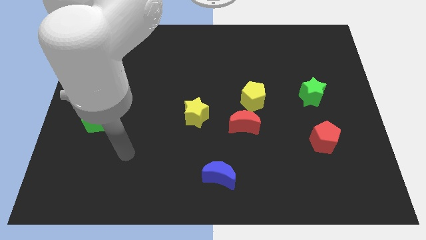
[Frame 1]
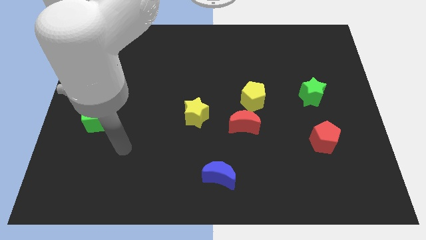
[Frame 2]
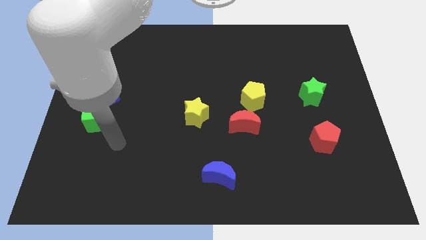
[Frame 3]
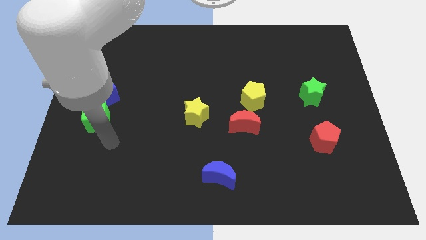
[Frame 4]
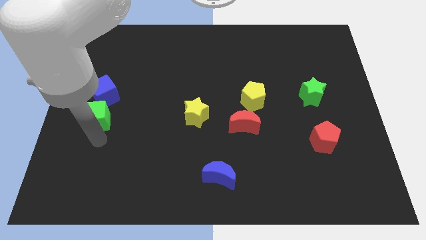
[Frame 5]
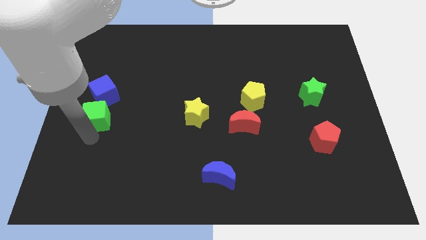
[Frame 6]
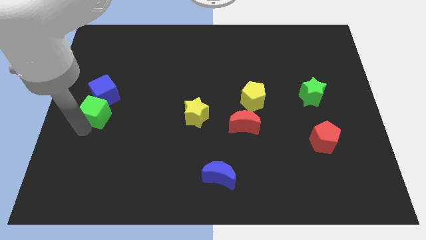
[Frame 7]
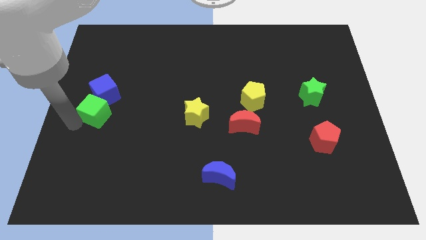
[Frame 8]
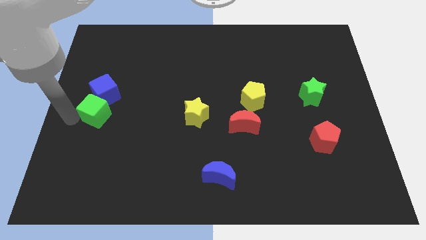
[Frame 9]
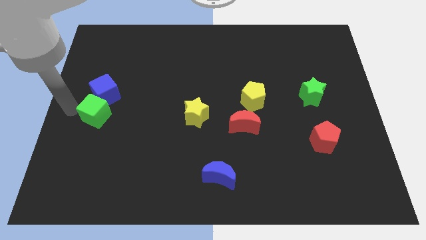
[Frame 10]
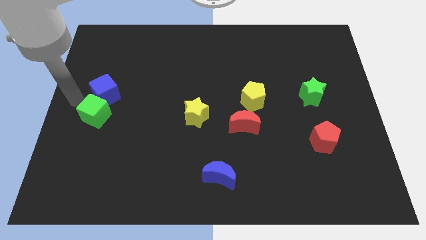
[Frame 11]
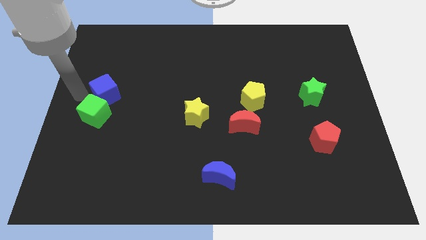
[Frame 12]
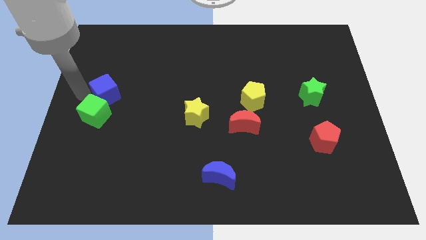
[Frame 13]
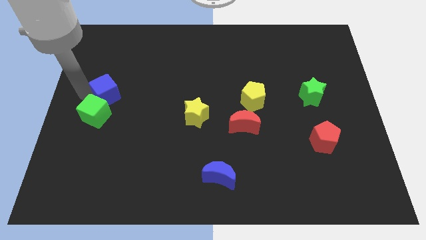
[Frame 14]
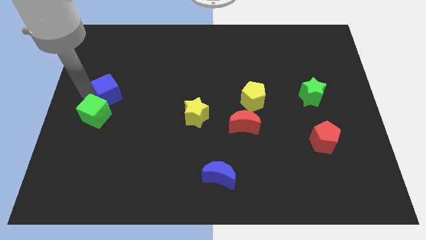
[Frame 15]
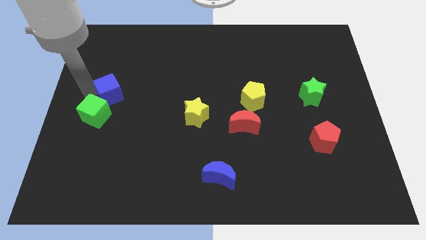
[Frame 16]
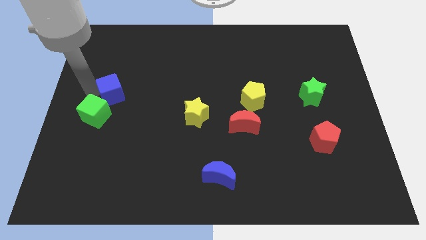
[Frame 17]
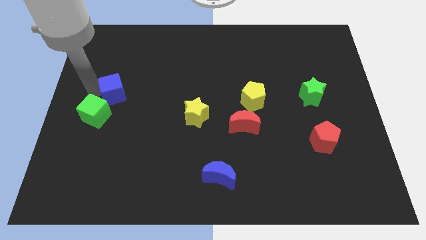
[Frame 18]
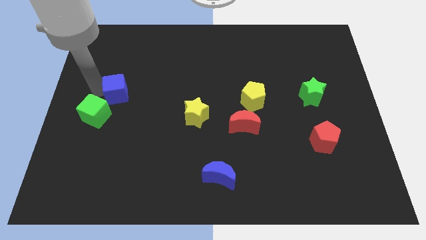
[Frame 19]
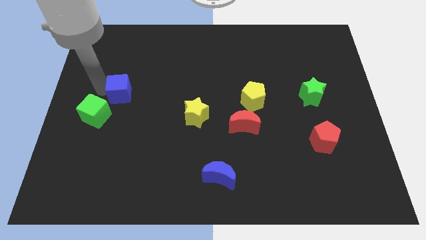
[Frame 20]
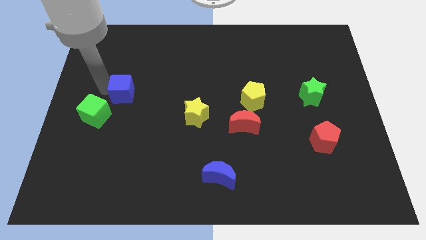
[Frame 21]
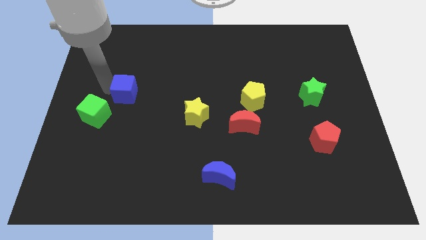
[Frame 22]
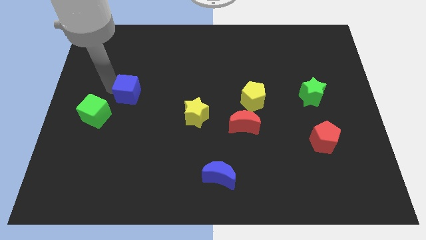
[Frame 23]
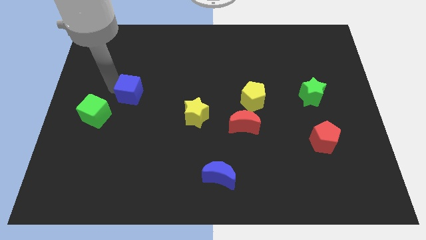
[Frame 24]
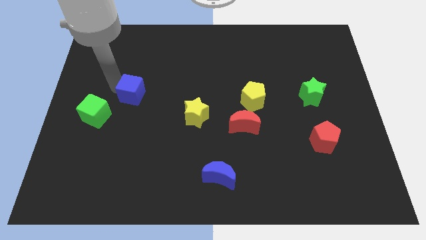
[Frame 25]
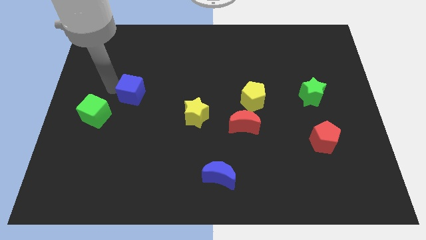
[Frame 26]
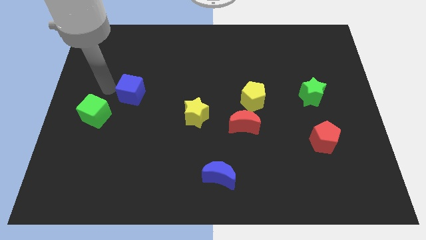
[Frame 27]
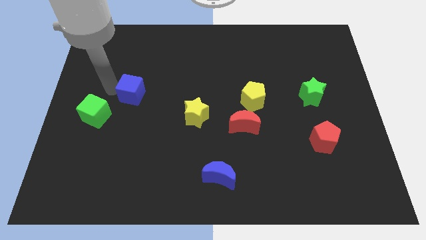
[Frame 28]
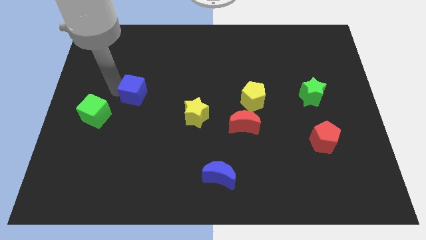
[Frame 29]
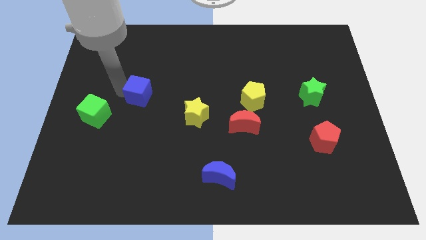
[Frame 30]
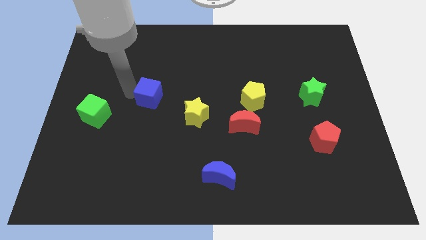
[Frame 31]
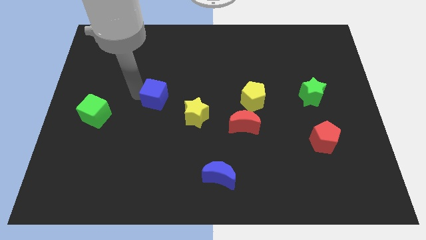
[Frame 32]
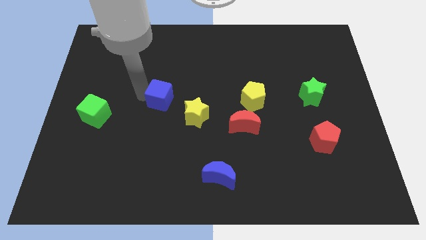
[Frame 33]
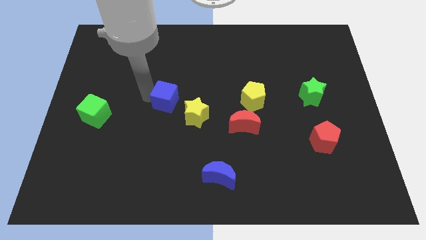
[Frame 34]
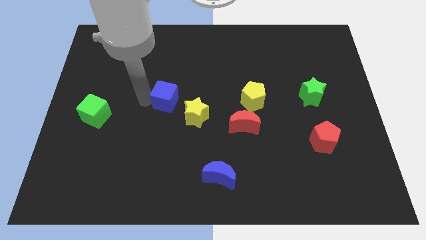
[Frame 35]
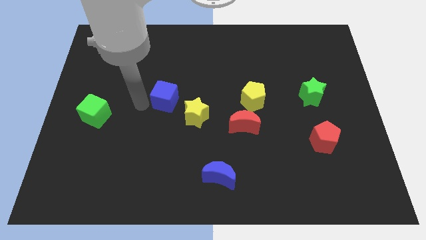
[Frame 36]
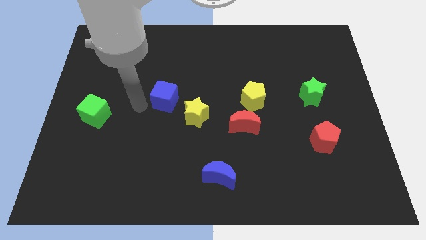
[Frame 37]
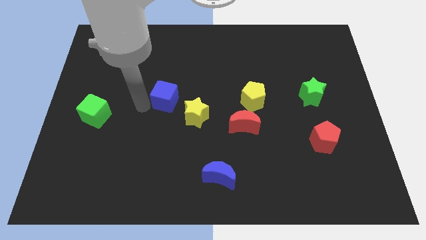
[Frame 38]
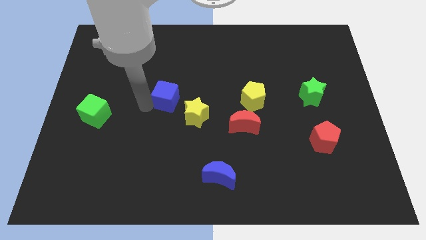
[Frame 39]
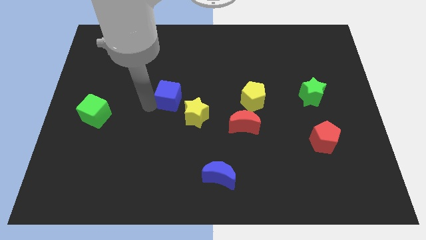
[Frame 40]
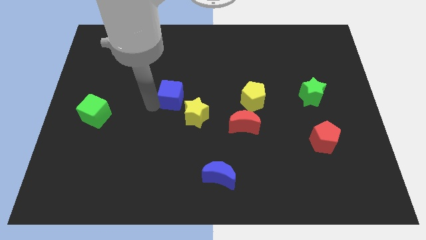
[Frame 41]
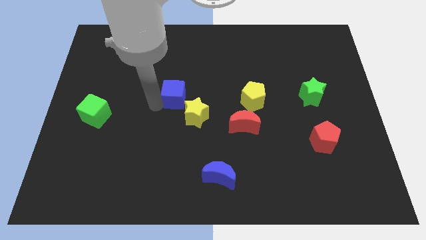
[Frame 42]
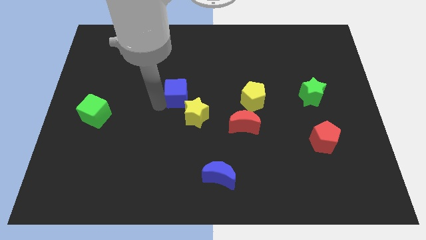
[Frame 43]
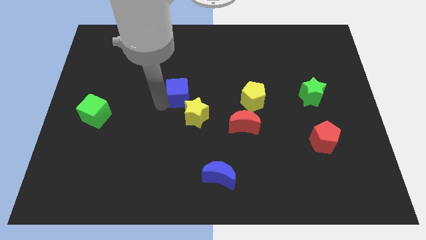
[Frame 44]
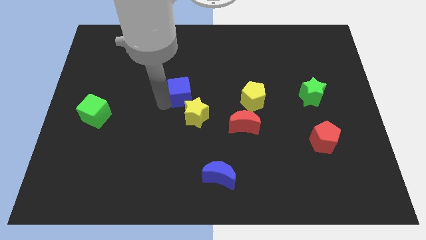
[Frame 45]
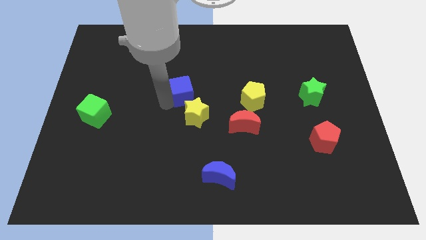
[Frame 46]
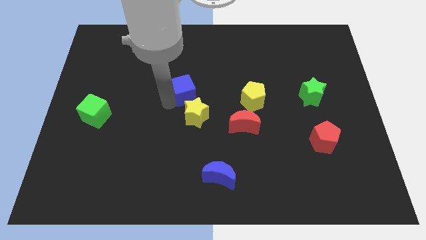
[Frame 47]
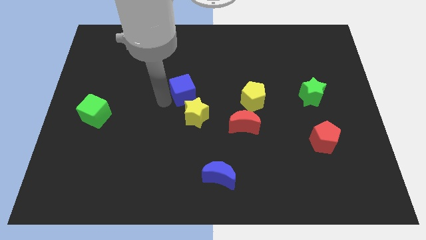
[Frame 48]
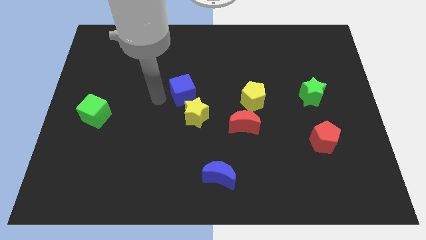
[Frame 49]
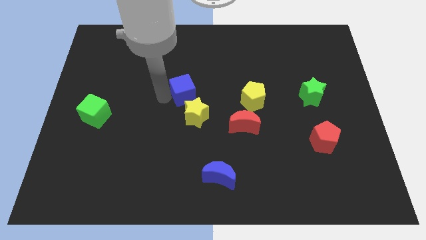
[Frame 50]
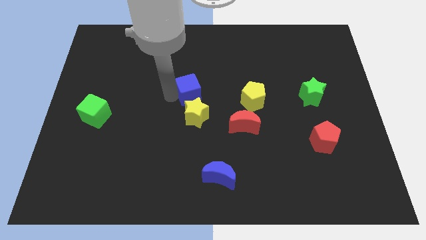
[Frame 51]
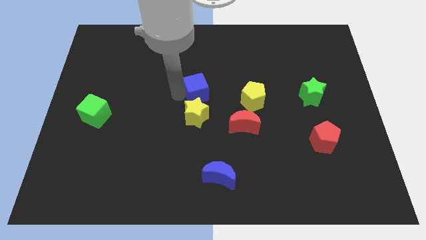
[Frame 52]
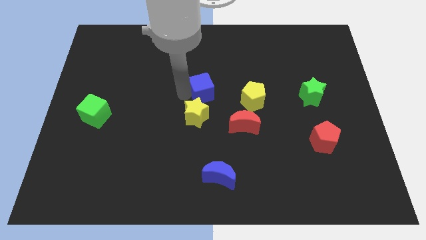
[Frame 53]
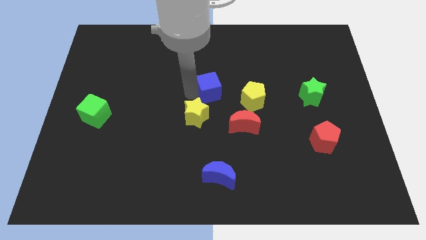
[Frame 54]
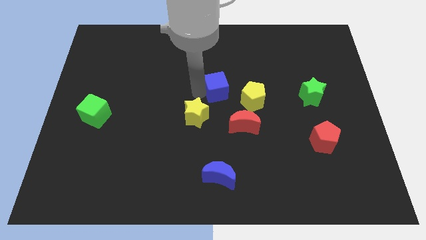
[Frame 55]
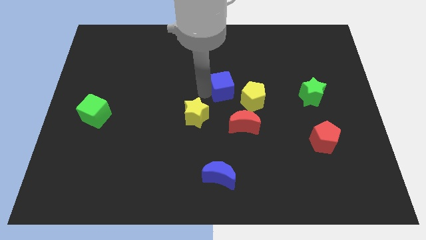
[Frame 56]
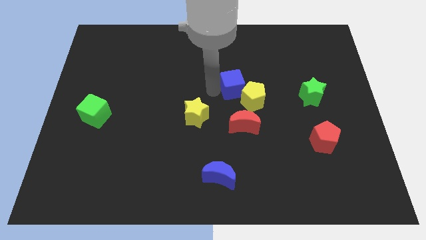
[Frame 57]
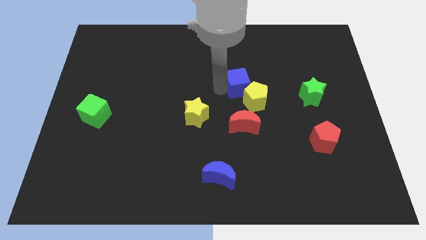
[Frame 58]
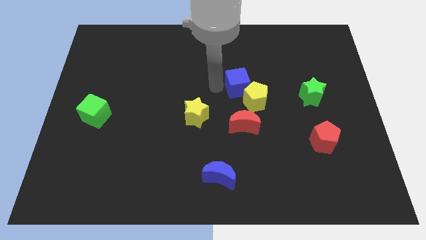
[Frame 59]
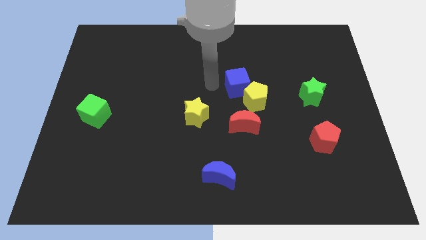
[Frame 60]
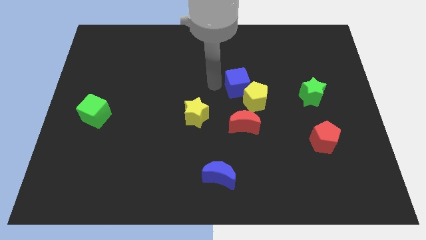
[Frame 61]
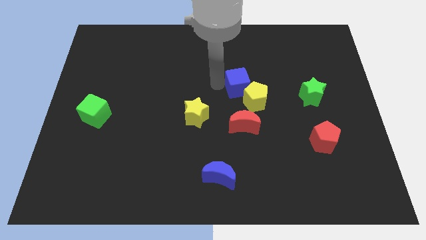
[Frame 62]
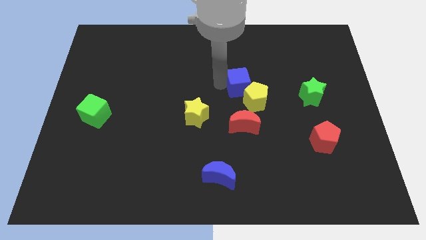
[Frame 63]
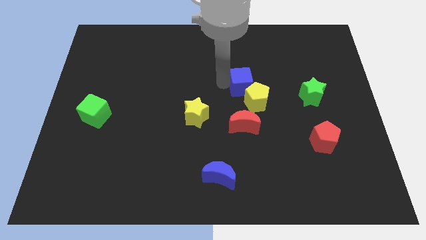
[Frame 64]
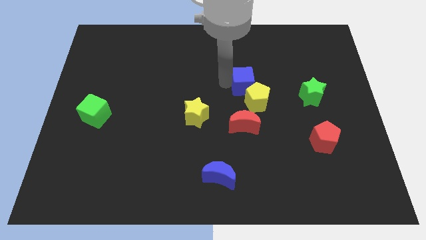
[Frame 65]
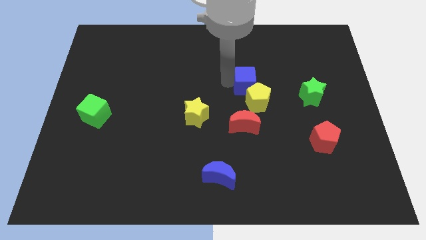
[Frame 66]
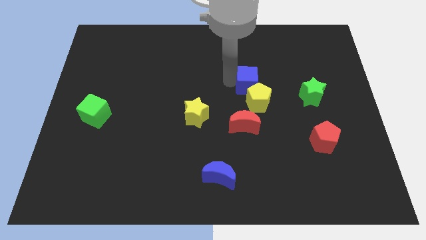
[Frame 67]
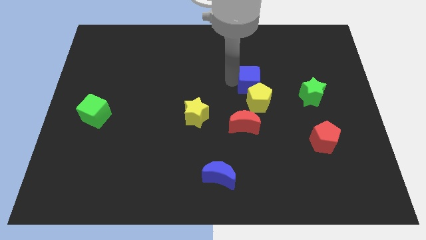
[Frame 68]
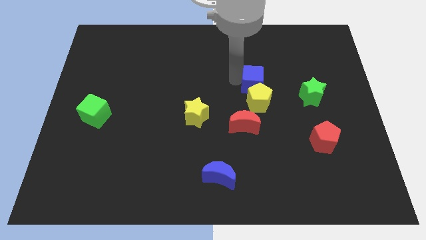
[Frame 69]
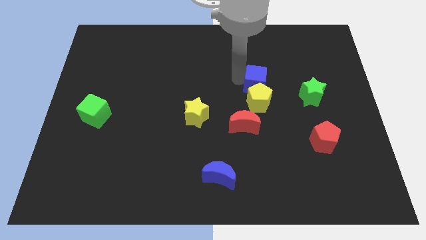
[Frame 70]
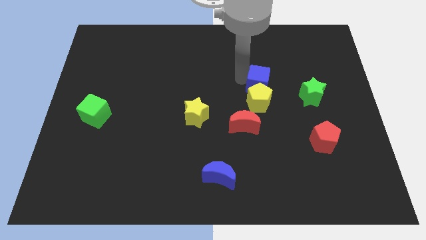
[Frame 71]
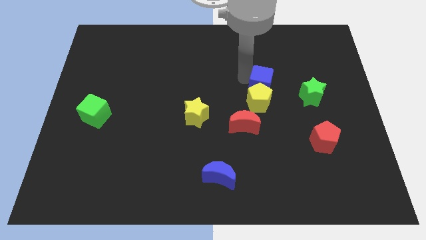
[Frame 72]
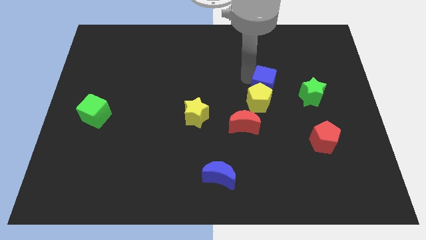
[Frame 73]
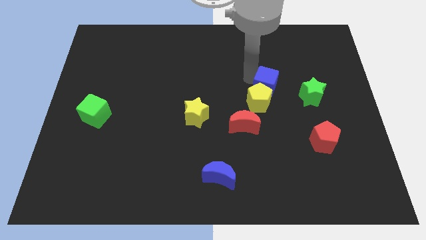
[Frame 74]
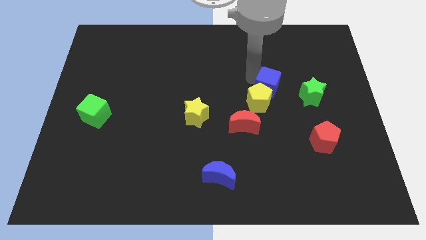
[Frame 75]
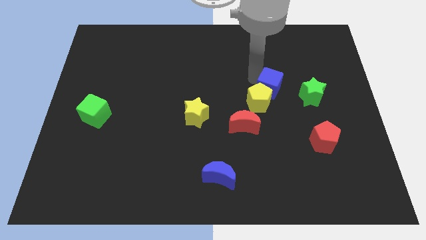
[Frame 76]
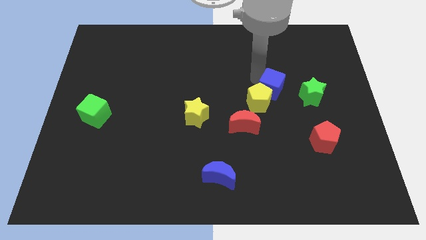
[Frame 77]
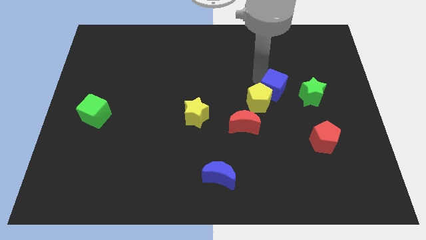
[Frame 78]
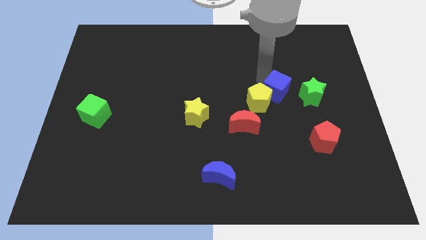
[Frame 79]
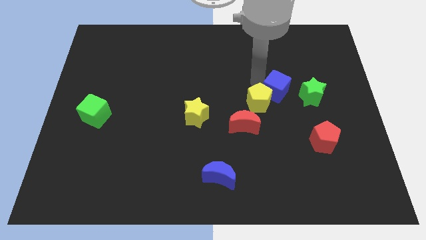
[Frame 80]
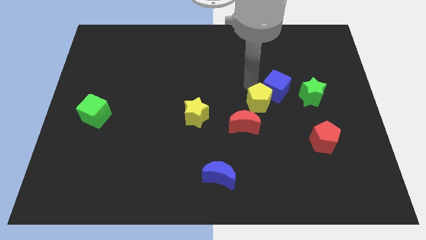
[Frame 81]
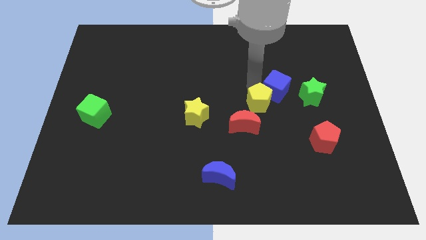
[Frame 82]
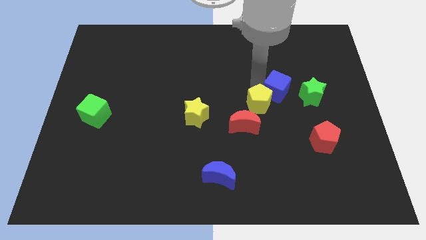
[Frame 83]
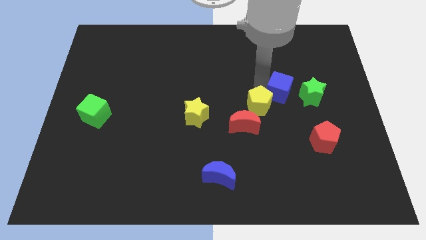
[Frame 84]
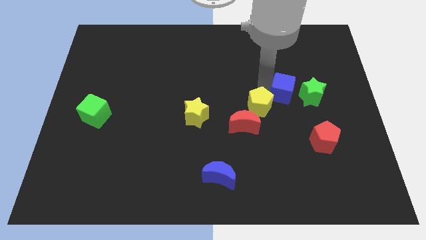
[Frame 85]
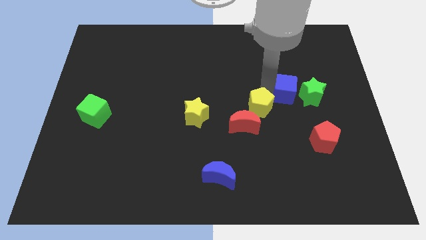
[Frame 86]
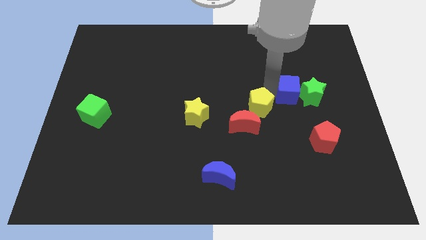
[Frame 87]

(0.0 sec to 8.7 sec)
move the blue cube close to the green star
